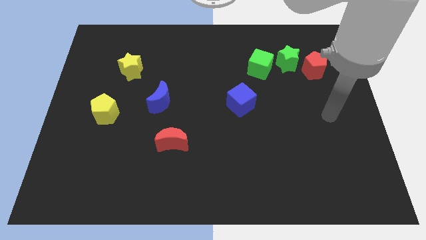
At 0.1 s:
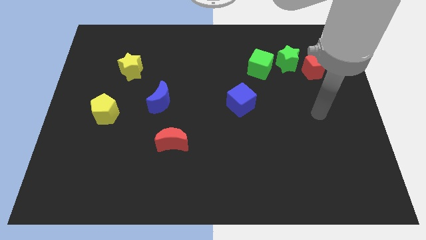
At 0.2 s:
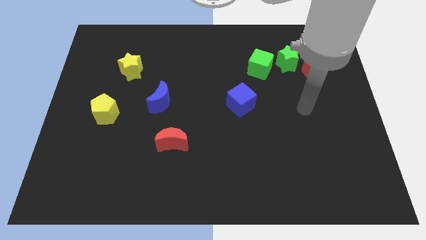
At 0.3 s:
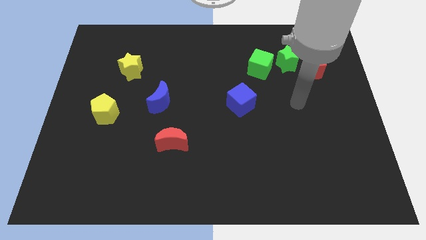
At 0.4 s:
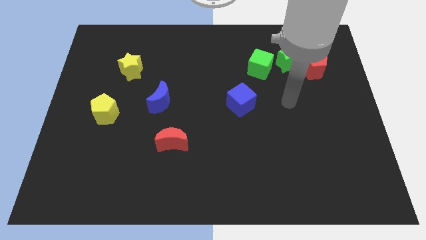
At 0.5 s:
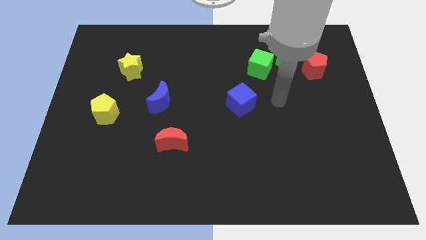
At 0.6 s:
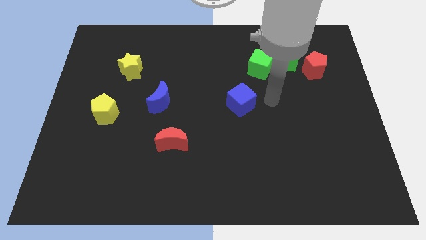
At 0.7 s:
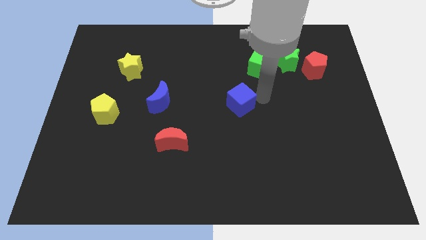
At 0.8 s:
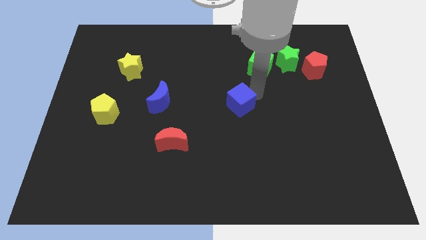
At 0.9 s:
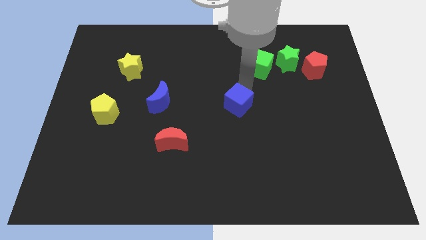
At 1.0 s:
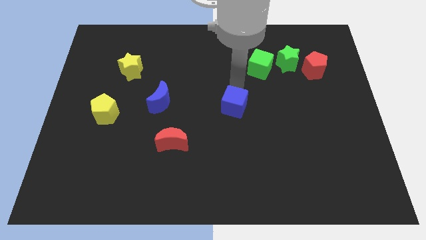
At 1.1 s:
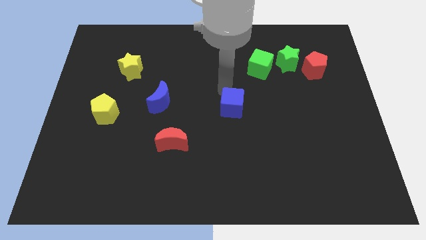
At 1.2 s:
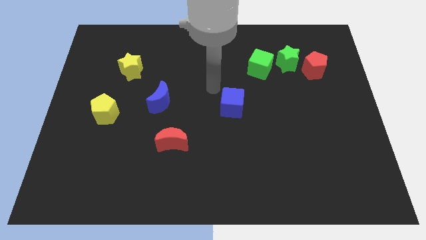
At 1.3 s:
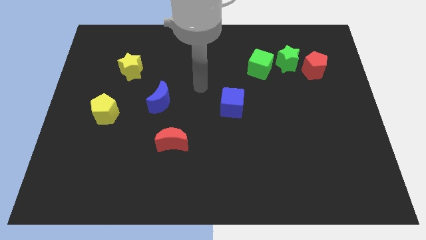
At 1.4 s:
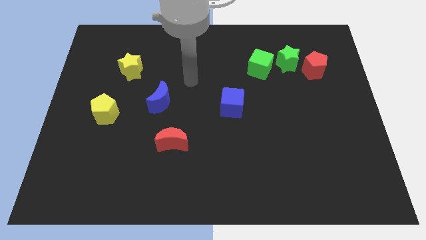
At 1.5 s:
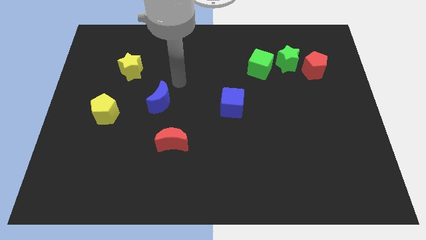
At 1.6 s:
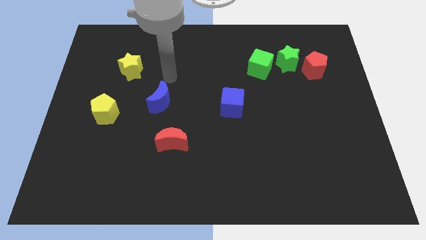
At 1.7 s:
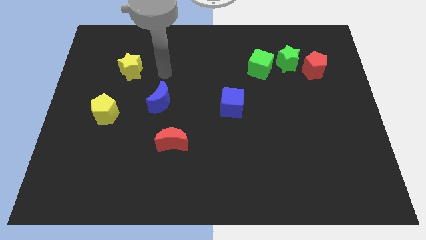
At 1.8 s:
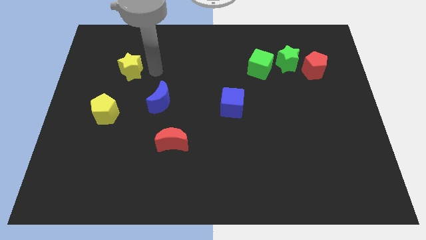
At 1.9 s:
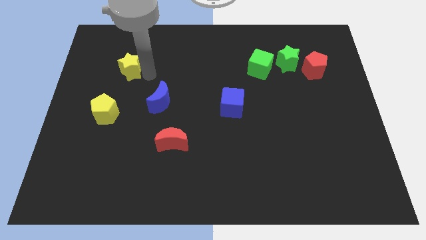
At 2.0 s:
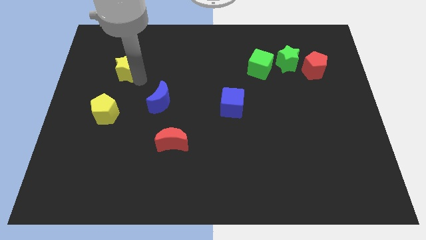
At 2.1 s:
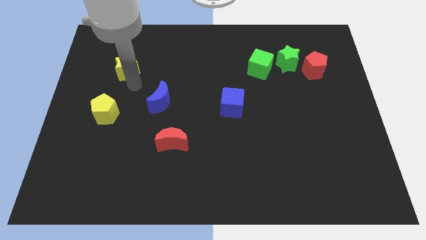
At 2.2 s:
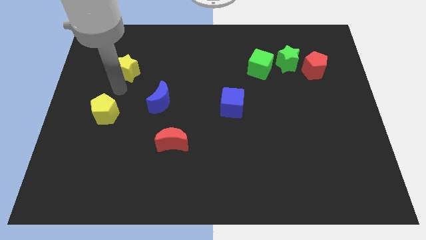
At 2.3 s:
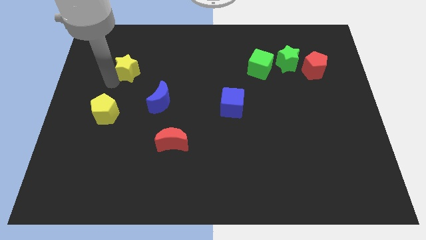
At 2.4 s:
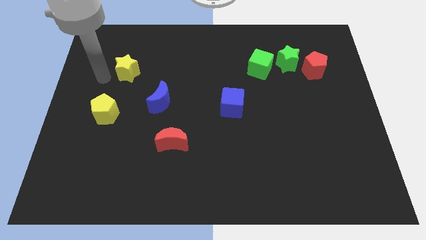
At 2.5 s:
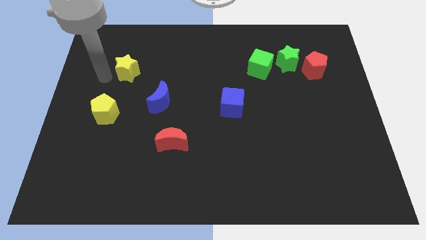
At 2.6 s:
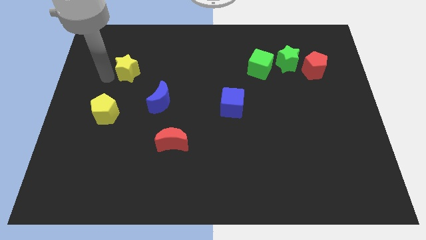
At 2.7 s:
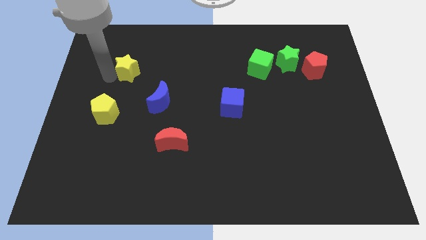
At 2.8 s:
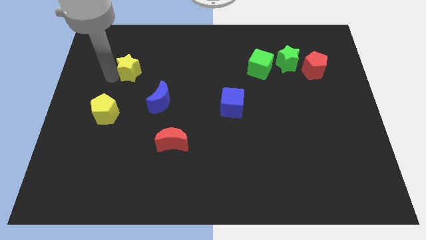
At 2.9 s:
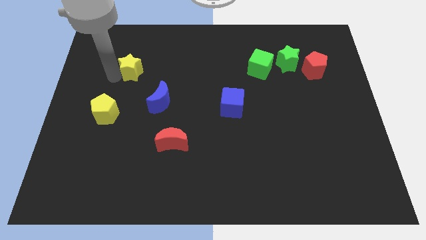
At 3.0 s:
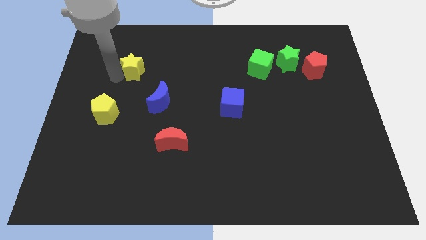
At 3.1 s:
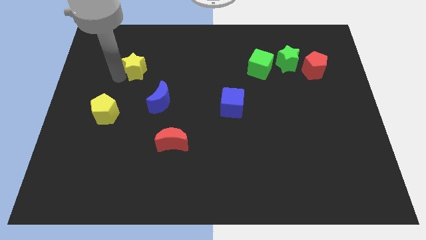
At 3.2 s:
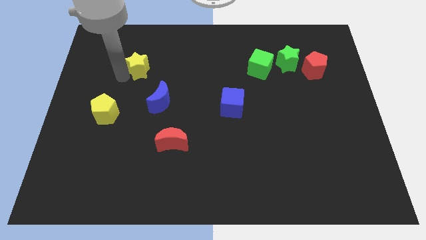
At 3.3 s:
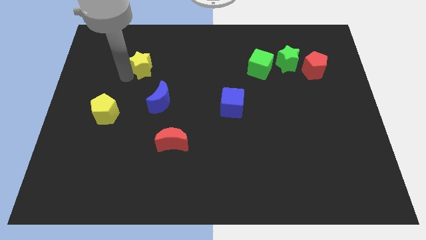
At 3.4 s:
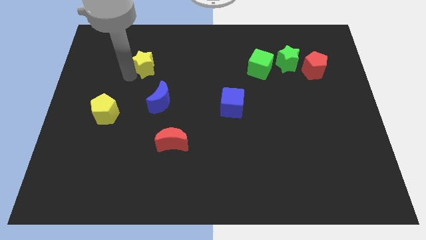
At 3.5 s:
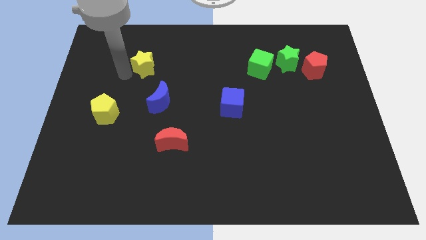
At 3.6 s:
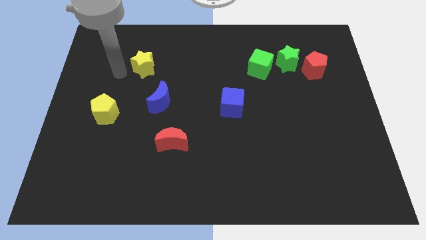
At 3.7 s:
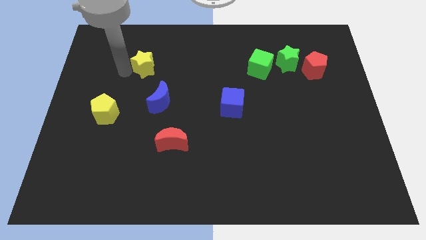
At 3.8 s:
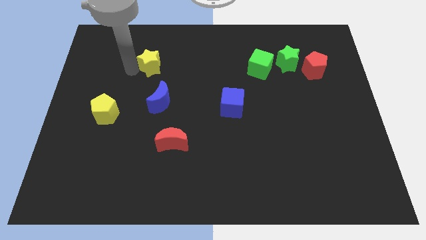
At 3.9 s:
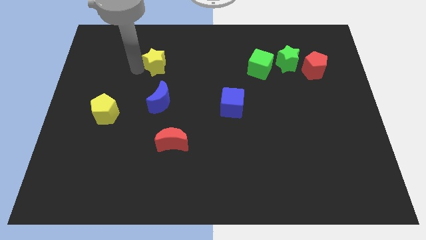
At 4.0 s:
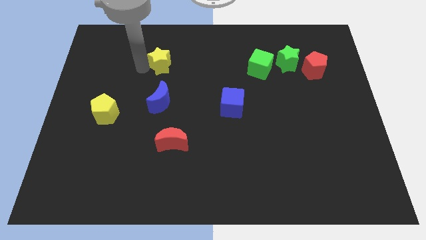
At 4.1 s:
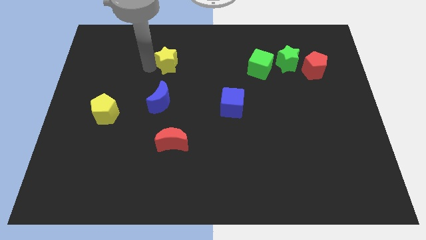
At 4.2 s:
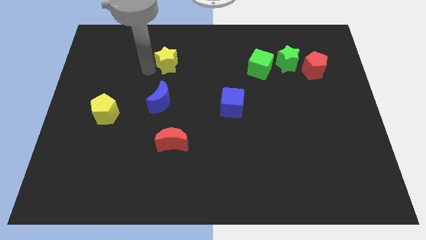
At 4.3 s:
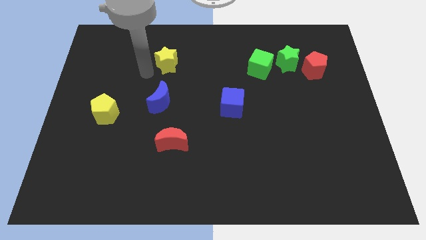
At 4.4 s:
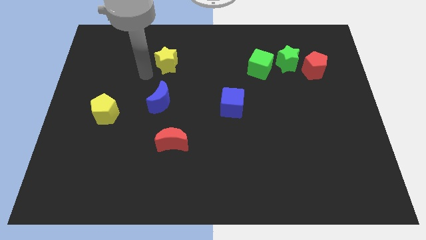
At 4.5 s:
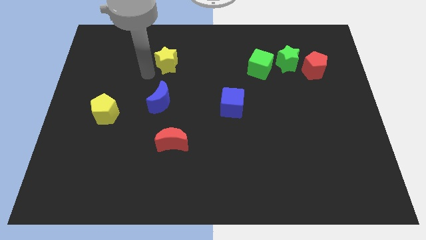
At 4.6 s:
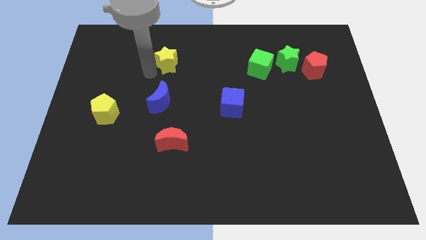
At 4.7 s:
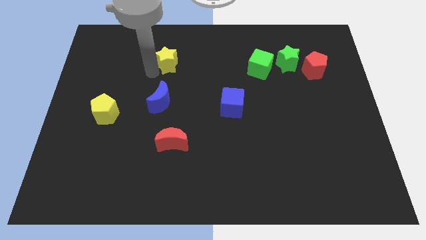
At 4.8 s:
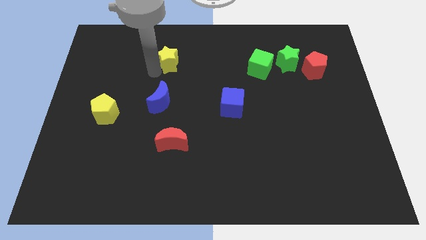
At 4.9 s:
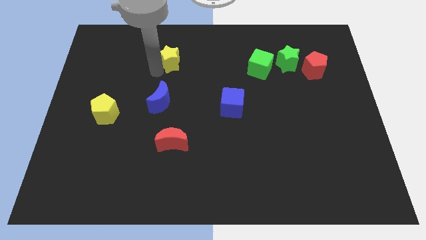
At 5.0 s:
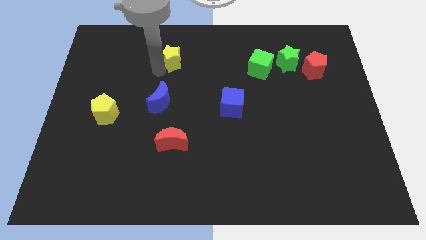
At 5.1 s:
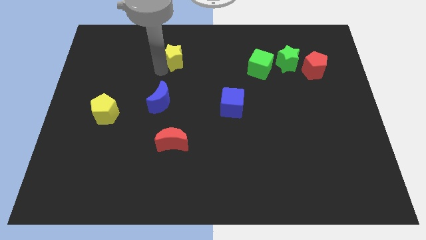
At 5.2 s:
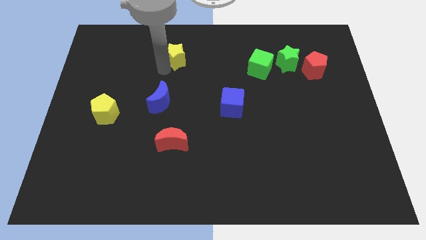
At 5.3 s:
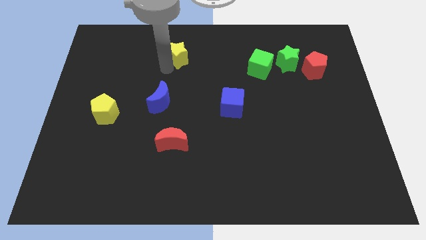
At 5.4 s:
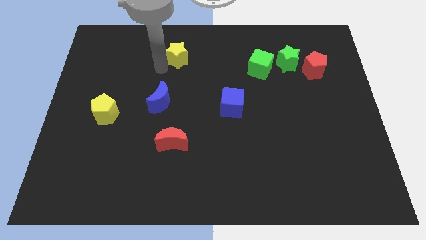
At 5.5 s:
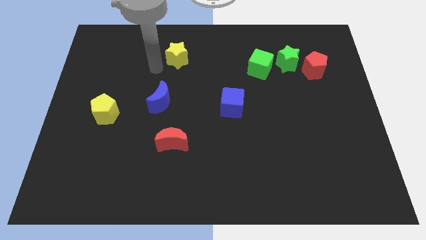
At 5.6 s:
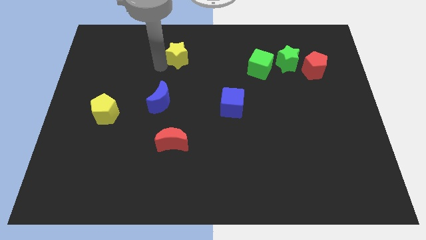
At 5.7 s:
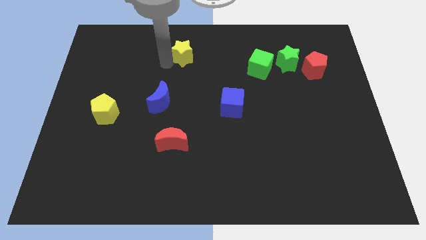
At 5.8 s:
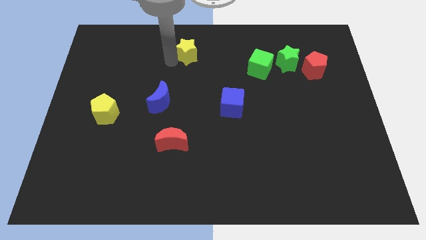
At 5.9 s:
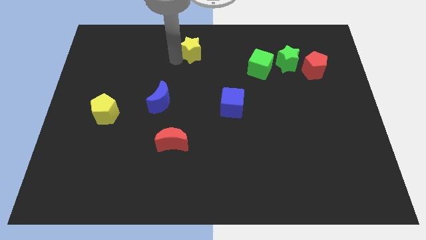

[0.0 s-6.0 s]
push the yellow star to the towards your base

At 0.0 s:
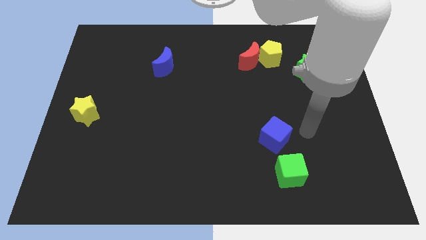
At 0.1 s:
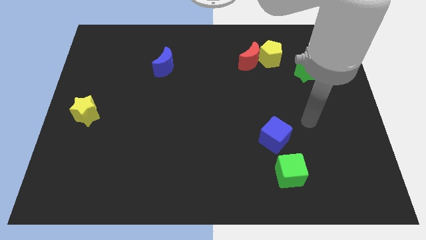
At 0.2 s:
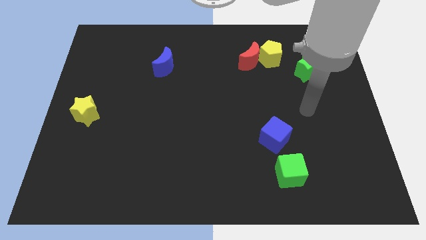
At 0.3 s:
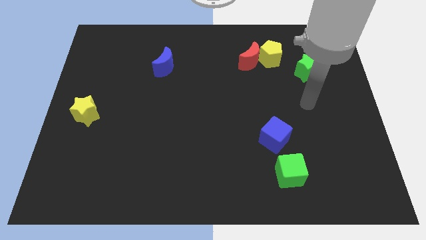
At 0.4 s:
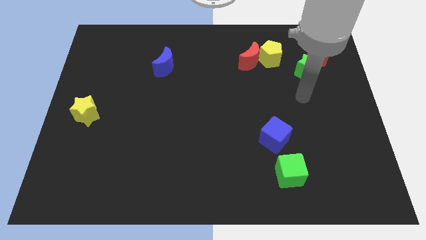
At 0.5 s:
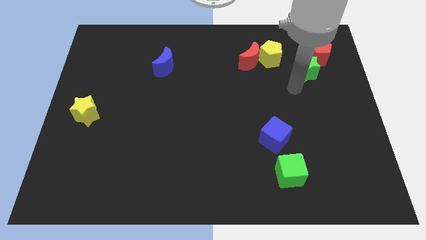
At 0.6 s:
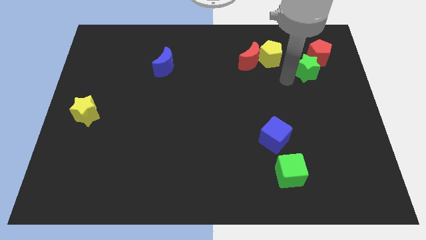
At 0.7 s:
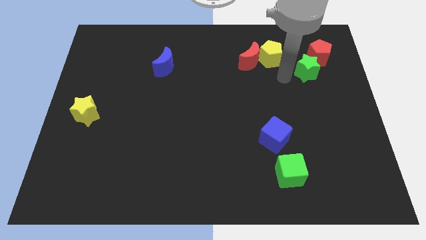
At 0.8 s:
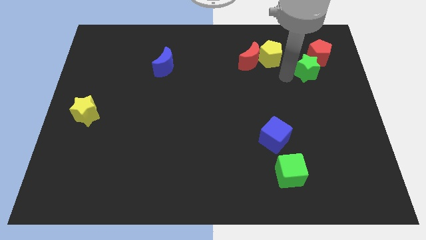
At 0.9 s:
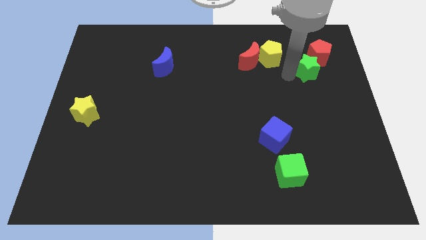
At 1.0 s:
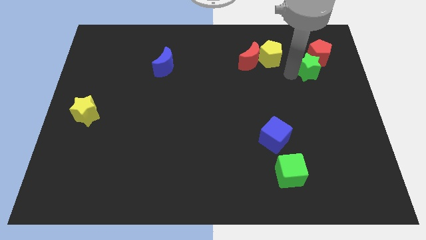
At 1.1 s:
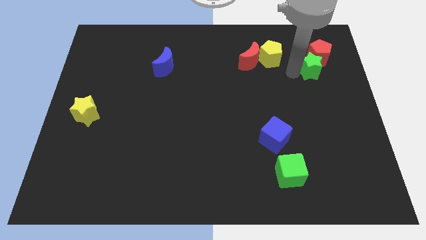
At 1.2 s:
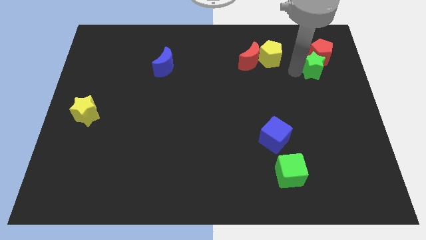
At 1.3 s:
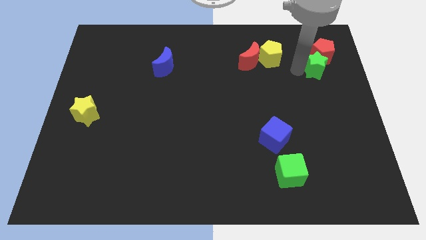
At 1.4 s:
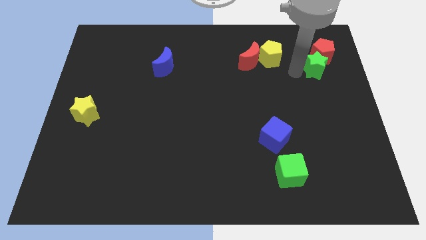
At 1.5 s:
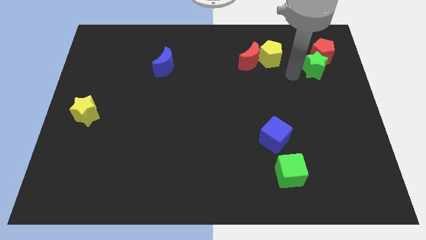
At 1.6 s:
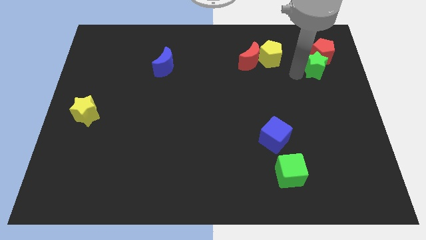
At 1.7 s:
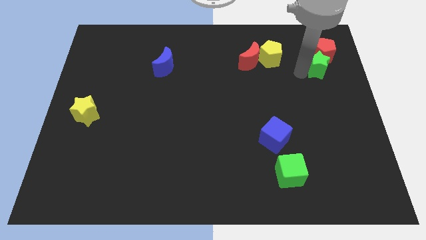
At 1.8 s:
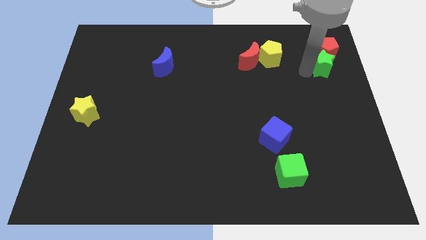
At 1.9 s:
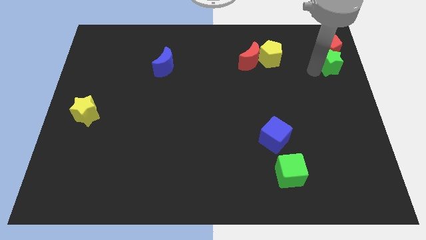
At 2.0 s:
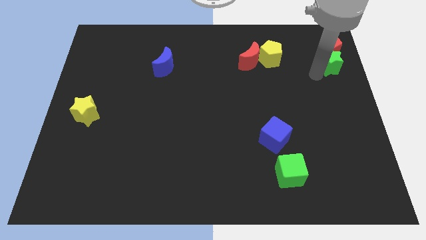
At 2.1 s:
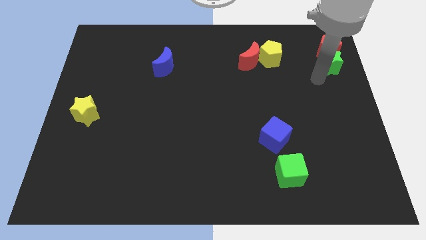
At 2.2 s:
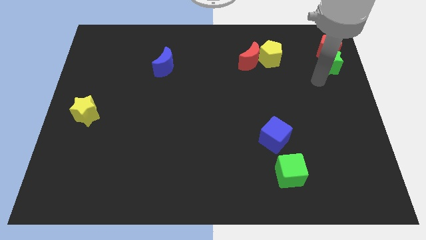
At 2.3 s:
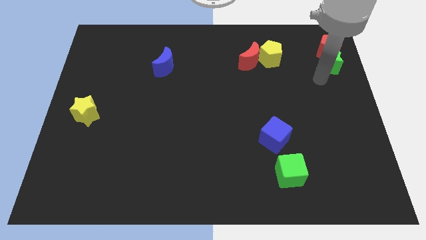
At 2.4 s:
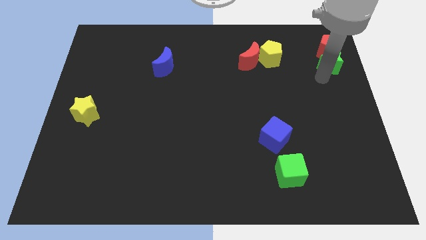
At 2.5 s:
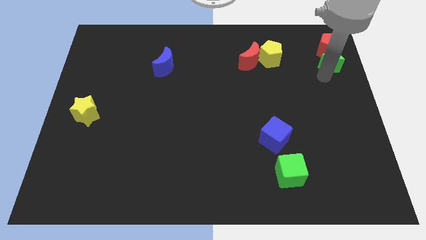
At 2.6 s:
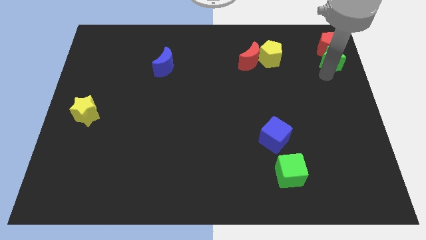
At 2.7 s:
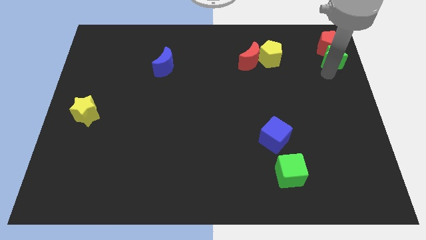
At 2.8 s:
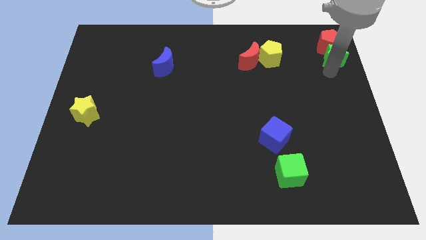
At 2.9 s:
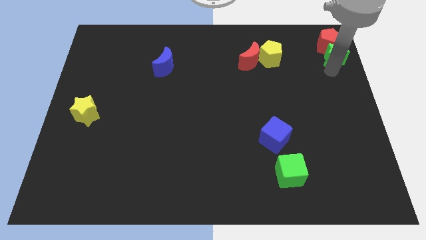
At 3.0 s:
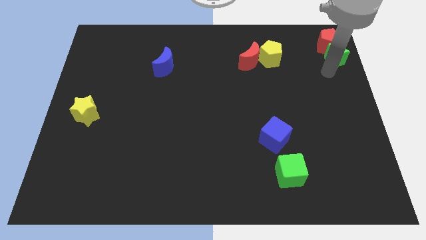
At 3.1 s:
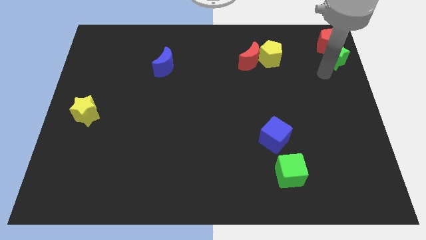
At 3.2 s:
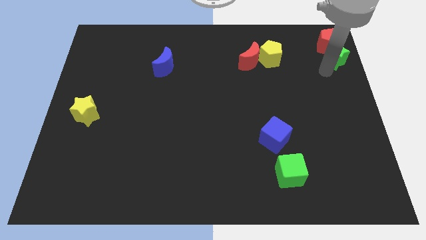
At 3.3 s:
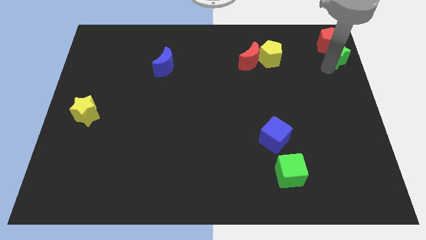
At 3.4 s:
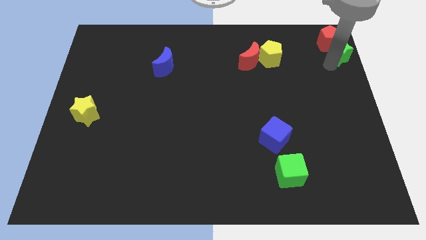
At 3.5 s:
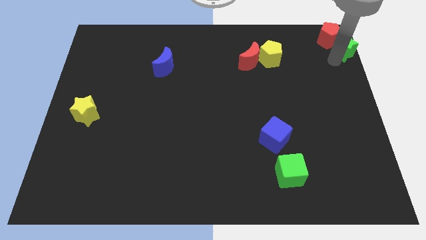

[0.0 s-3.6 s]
push the green star to the upper right corner
